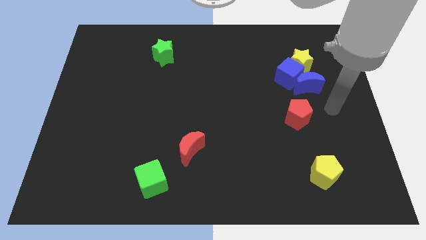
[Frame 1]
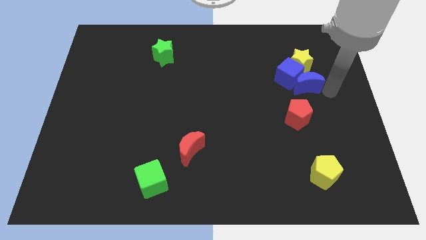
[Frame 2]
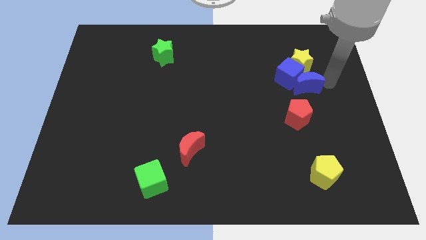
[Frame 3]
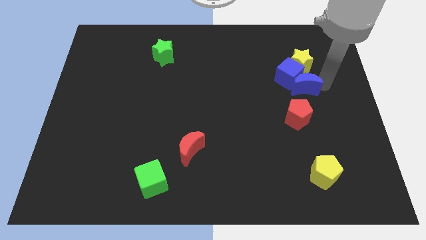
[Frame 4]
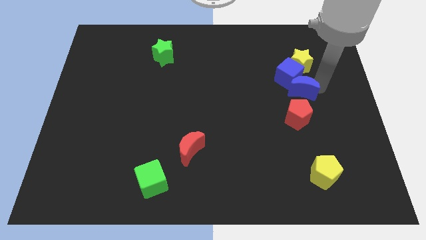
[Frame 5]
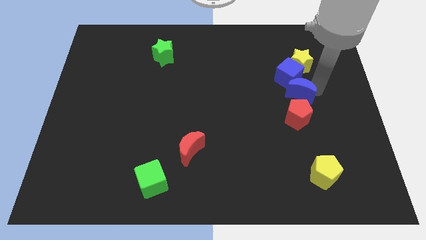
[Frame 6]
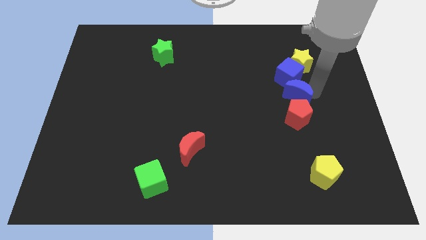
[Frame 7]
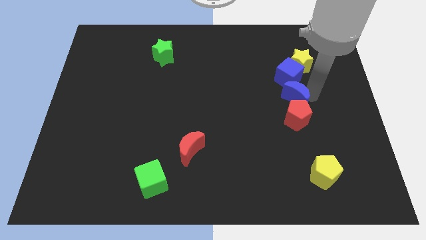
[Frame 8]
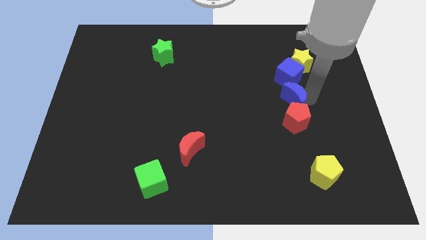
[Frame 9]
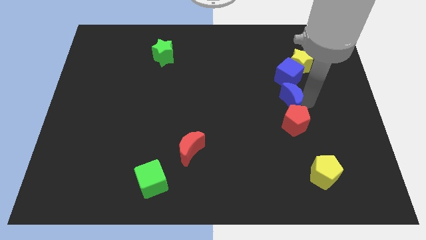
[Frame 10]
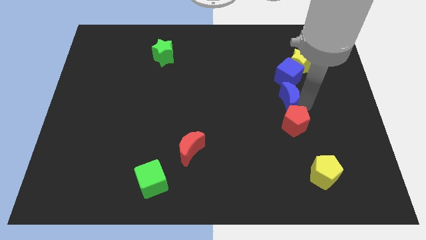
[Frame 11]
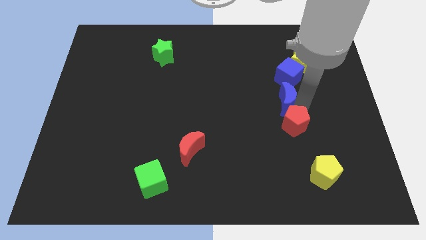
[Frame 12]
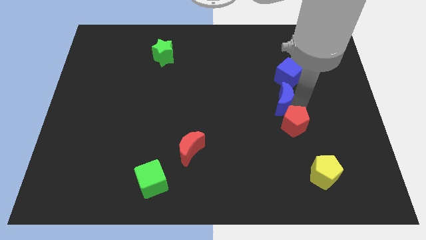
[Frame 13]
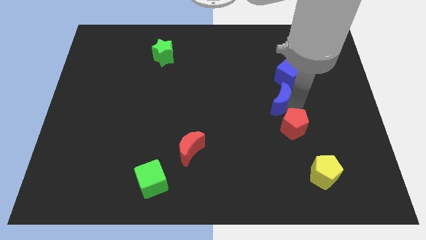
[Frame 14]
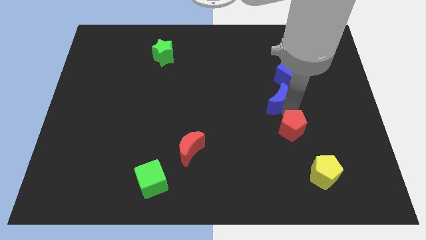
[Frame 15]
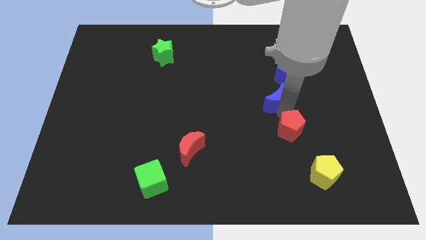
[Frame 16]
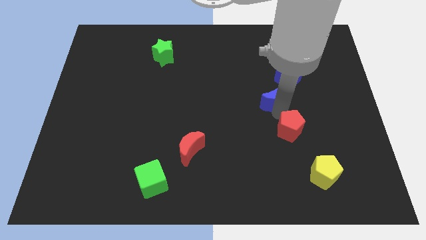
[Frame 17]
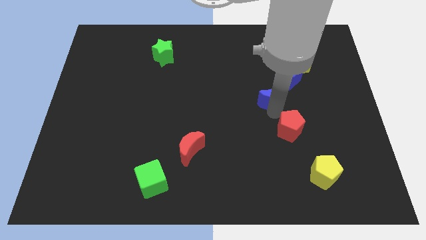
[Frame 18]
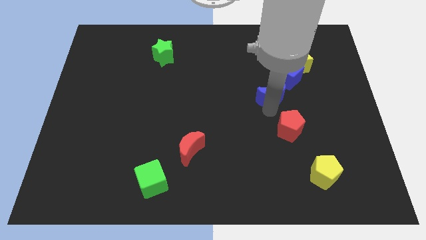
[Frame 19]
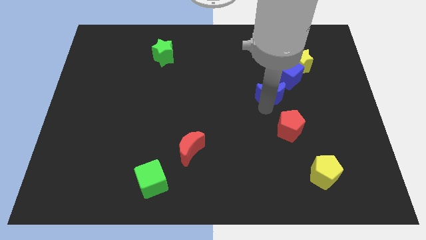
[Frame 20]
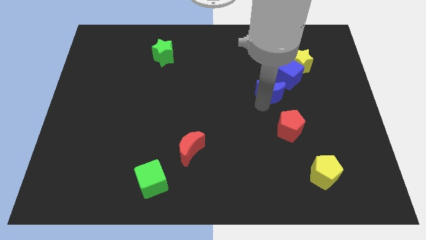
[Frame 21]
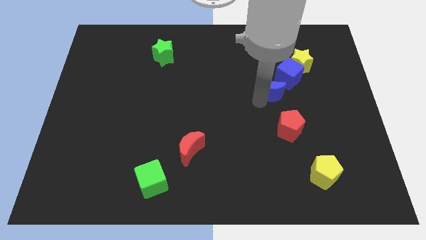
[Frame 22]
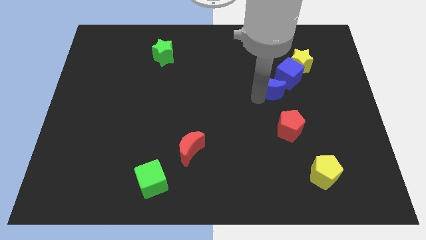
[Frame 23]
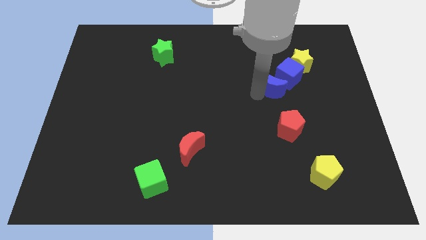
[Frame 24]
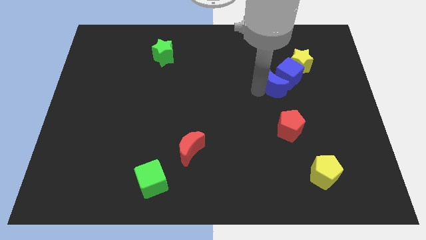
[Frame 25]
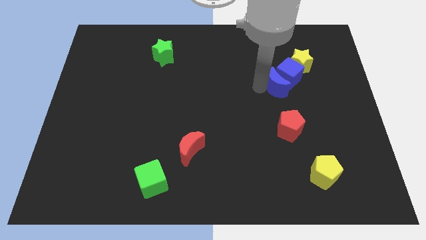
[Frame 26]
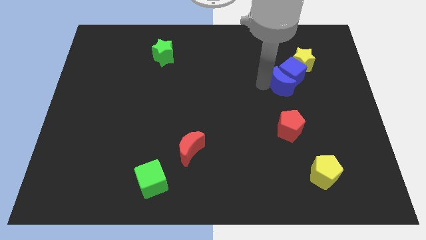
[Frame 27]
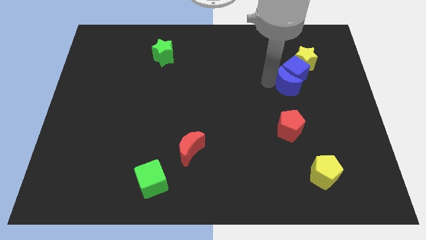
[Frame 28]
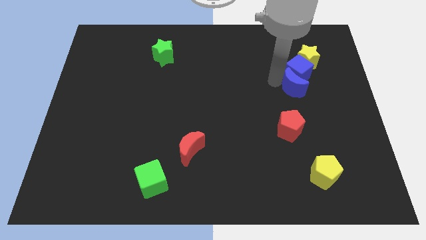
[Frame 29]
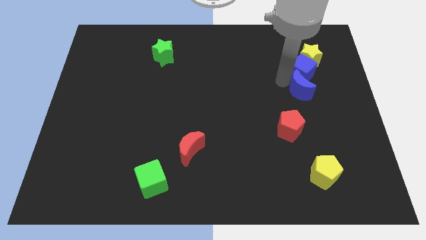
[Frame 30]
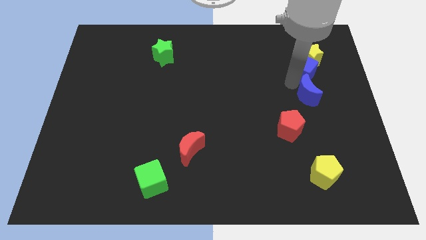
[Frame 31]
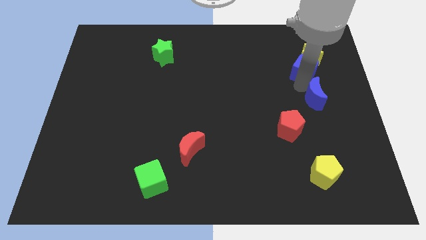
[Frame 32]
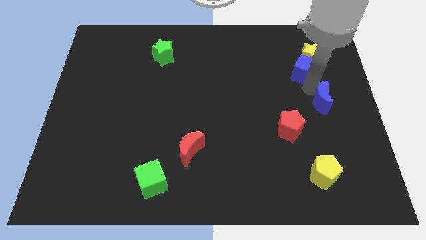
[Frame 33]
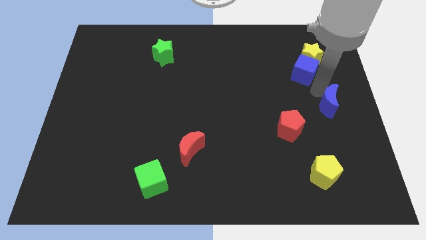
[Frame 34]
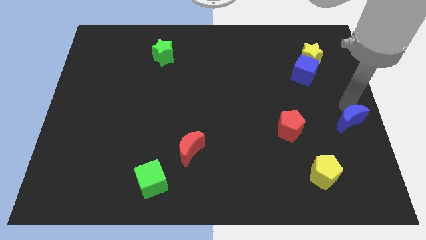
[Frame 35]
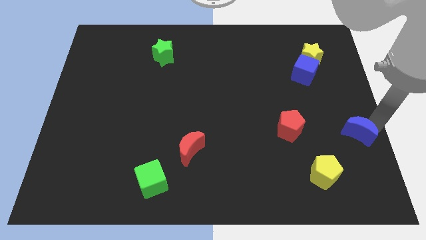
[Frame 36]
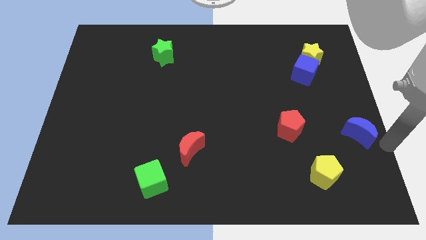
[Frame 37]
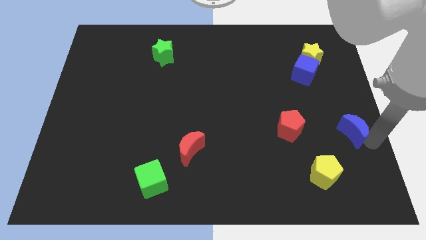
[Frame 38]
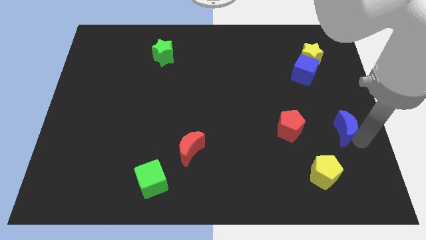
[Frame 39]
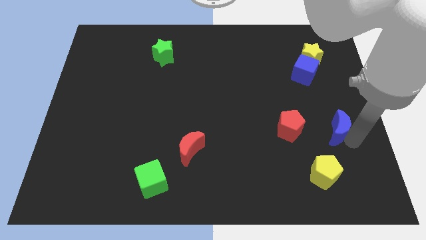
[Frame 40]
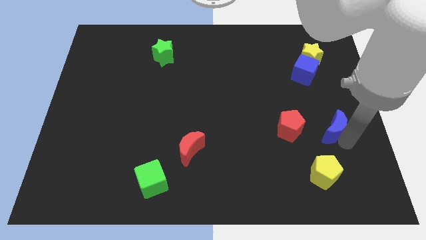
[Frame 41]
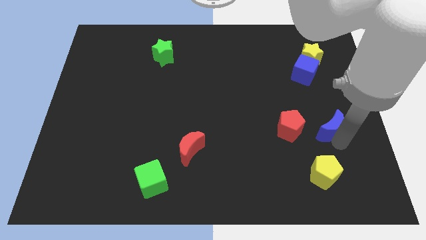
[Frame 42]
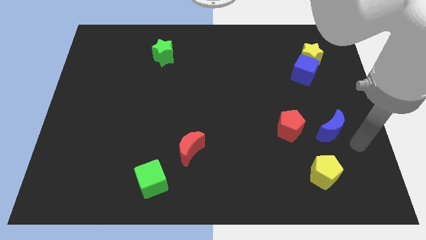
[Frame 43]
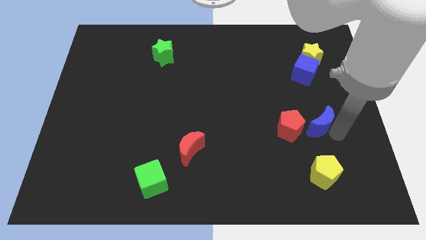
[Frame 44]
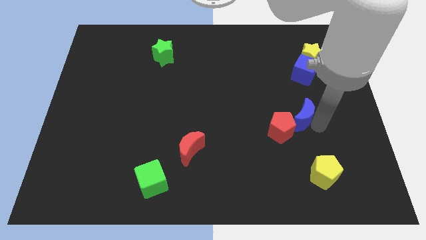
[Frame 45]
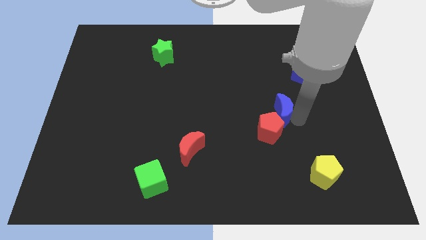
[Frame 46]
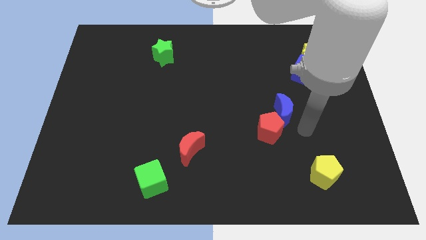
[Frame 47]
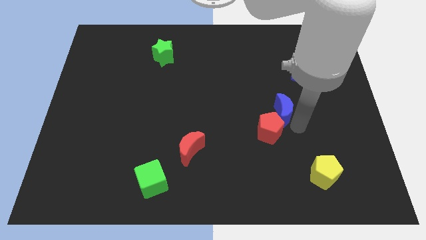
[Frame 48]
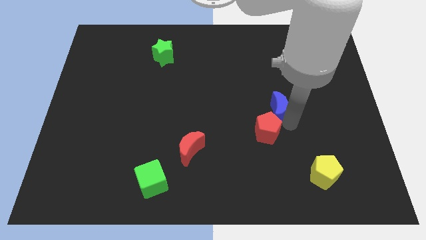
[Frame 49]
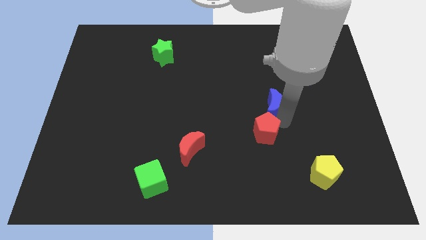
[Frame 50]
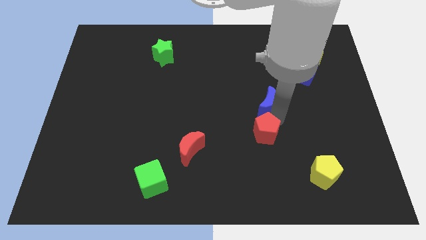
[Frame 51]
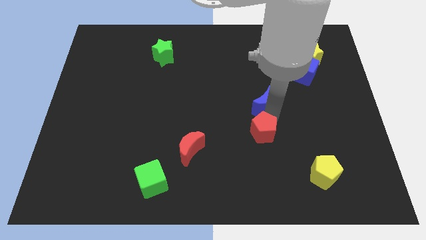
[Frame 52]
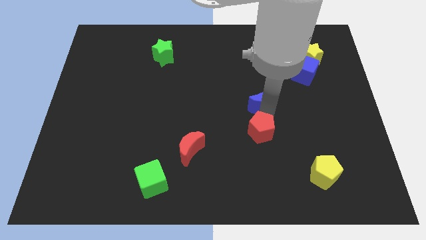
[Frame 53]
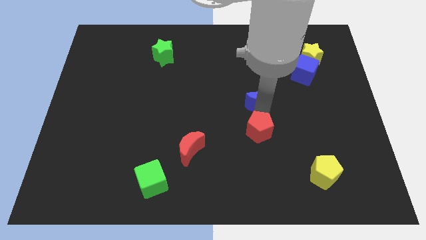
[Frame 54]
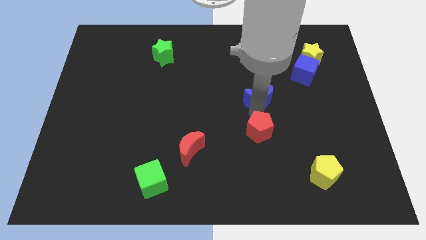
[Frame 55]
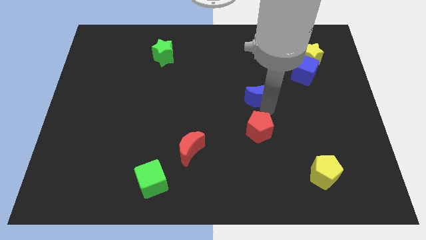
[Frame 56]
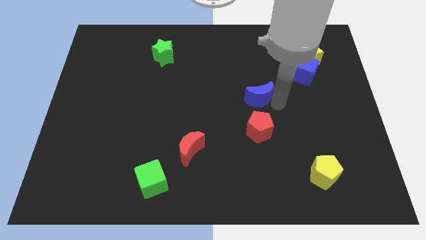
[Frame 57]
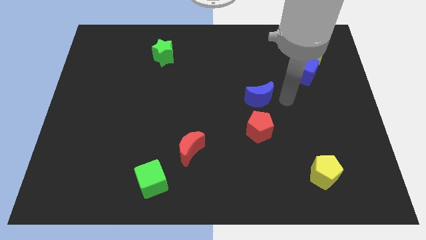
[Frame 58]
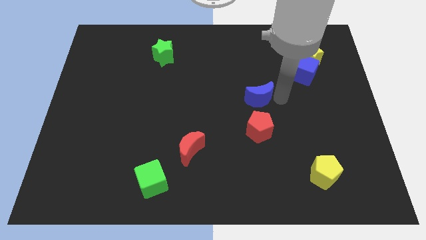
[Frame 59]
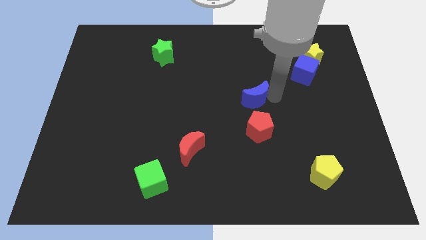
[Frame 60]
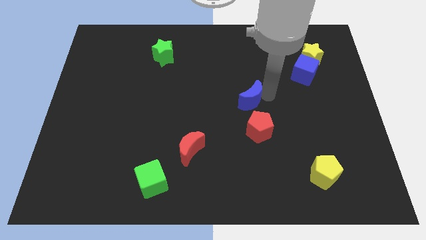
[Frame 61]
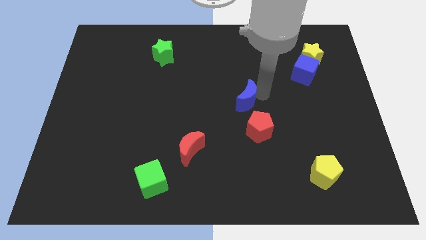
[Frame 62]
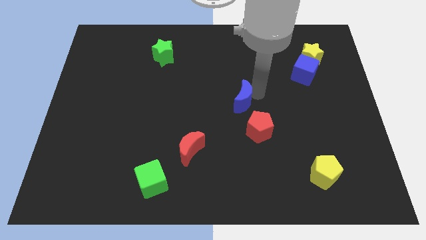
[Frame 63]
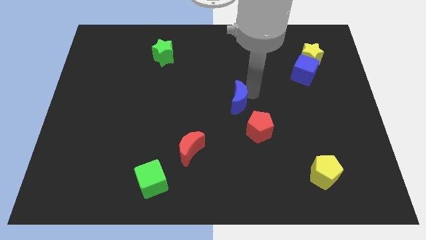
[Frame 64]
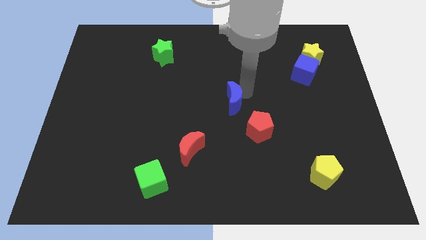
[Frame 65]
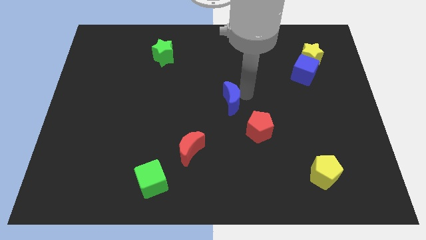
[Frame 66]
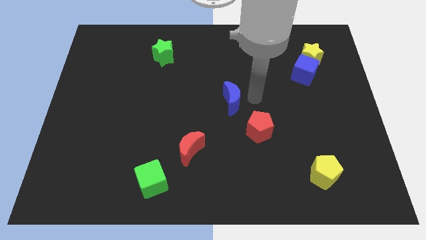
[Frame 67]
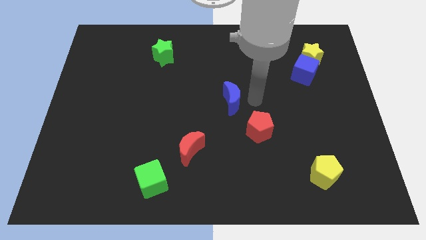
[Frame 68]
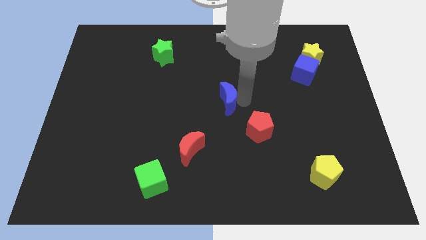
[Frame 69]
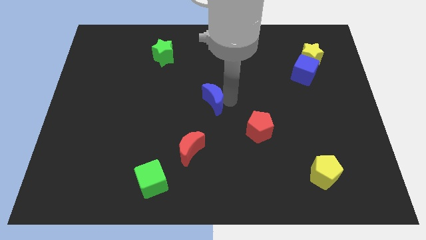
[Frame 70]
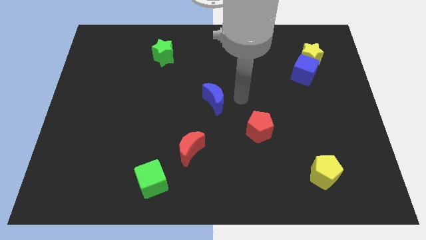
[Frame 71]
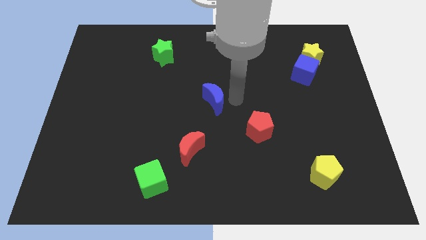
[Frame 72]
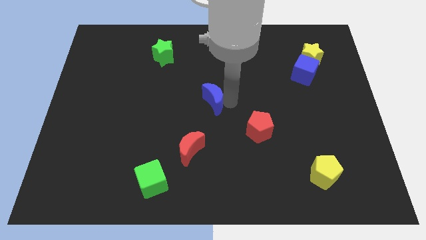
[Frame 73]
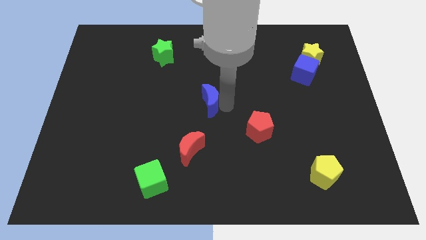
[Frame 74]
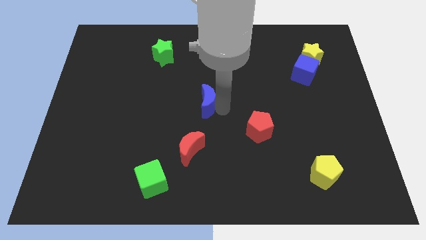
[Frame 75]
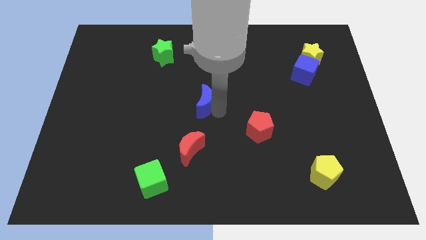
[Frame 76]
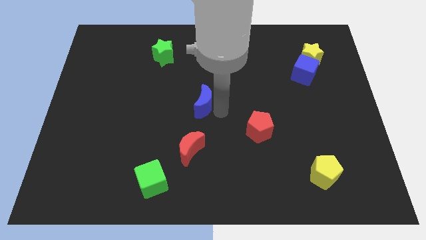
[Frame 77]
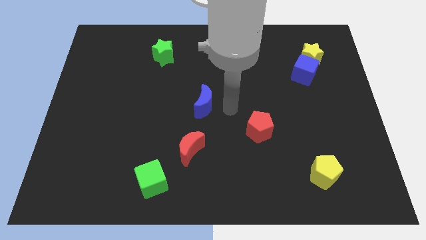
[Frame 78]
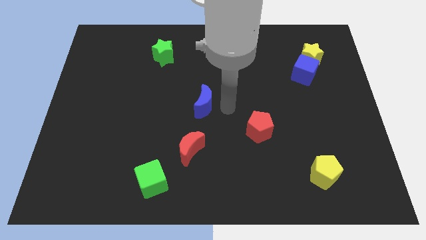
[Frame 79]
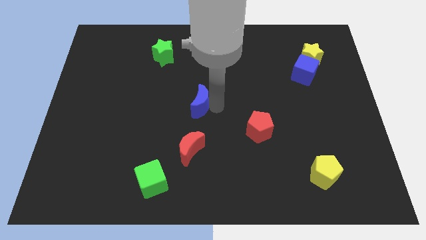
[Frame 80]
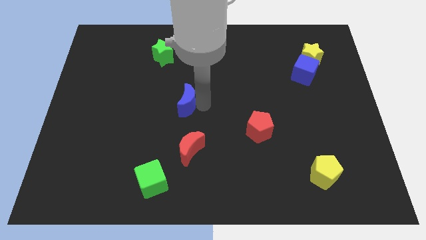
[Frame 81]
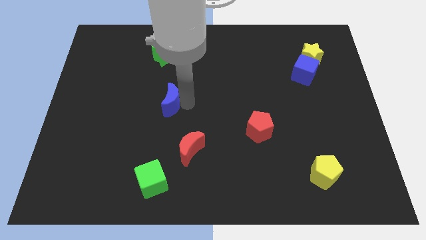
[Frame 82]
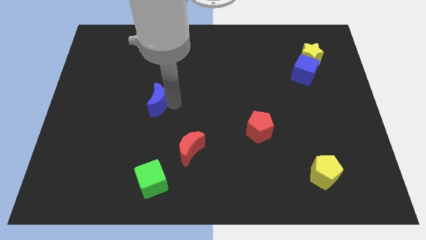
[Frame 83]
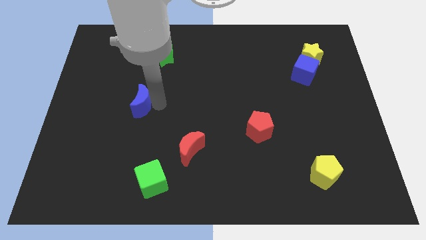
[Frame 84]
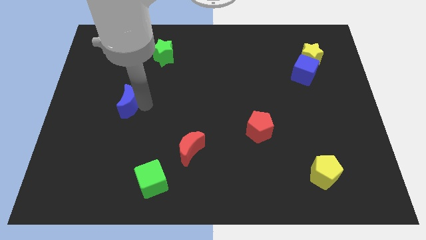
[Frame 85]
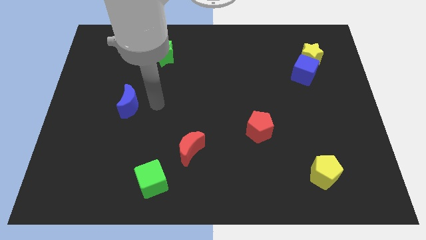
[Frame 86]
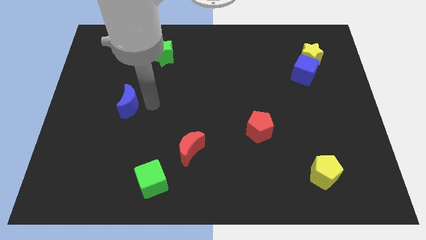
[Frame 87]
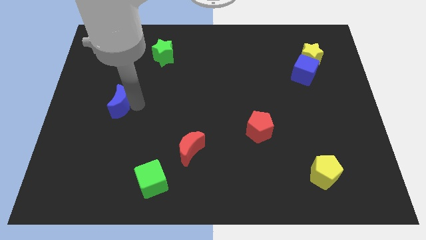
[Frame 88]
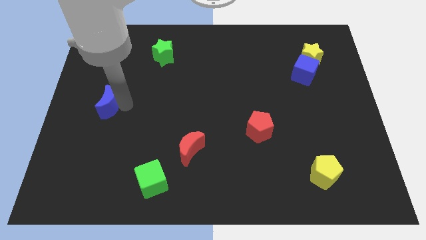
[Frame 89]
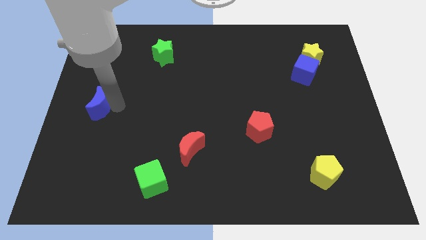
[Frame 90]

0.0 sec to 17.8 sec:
put the blue moon to the left side
